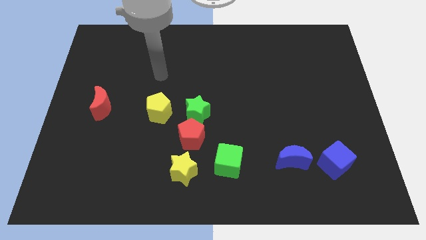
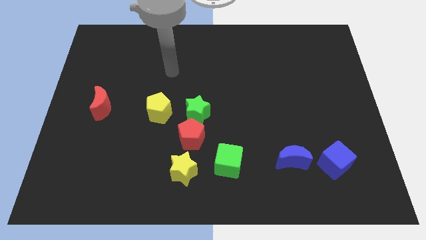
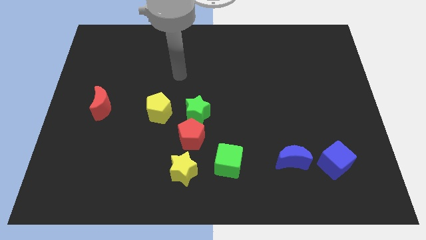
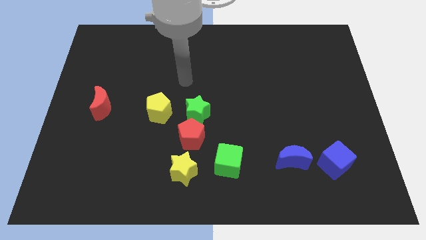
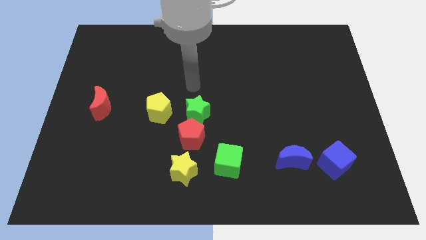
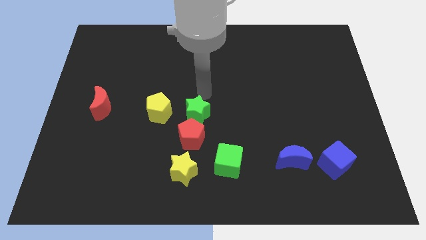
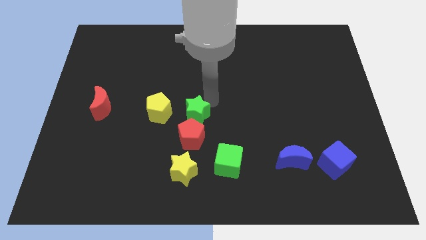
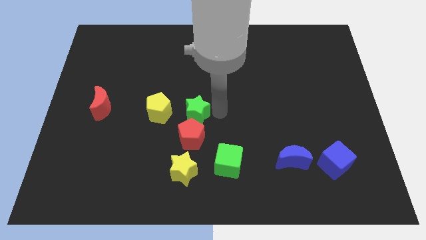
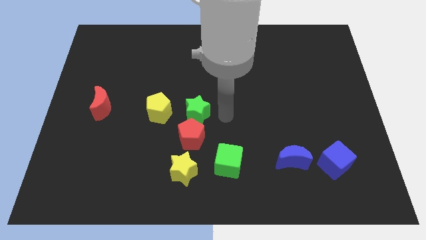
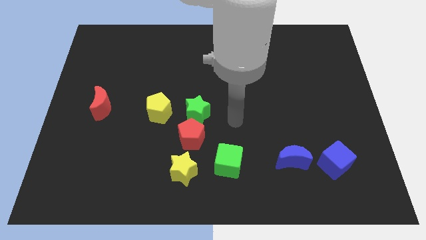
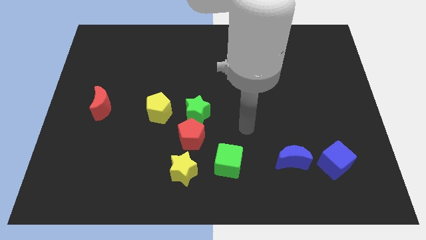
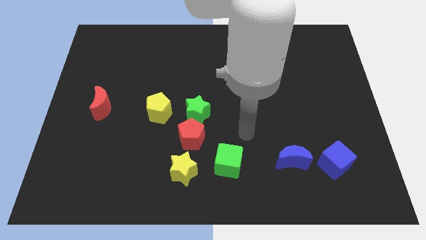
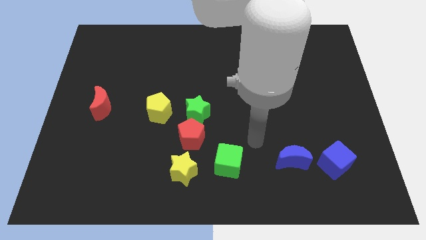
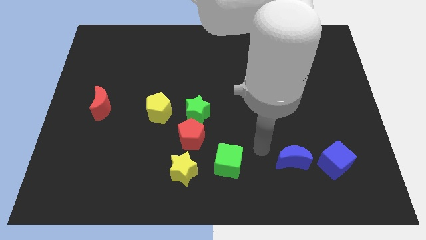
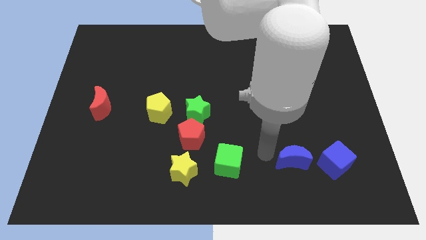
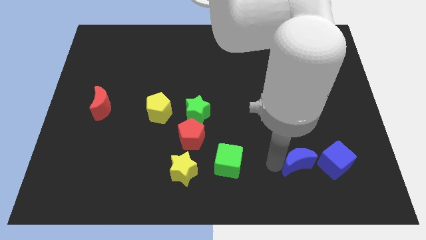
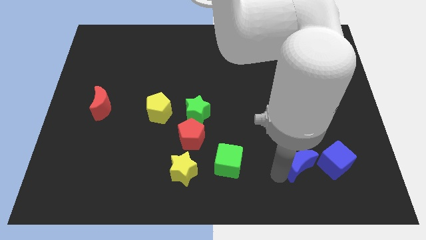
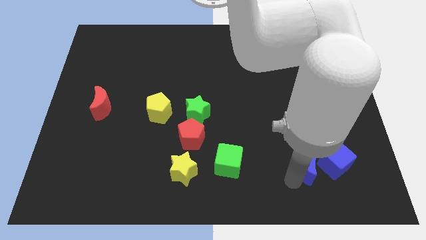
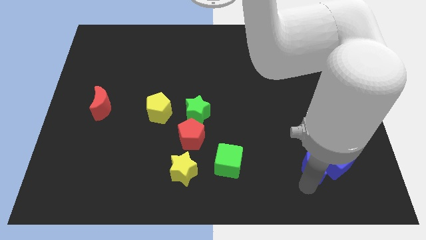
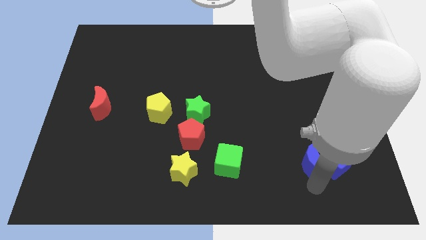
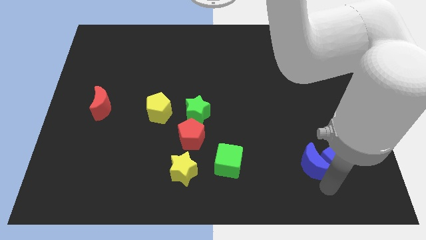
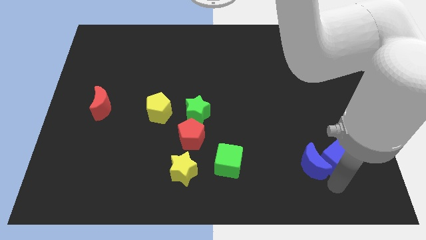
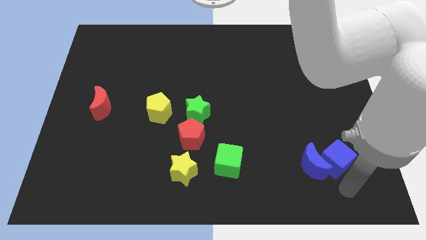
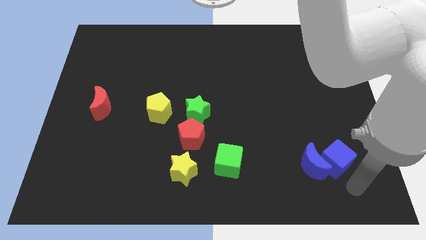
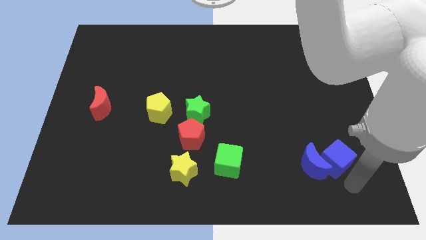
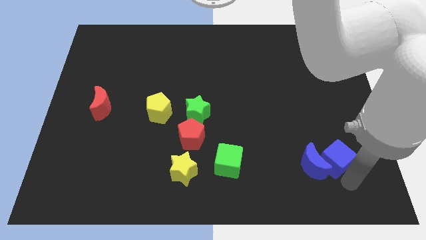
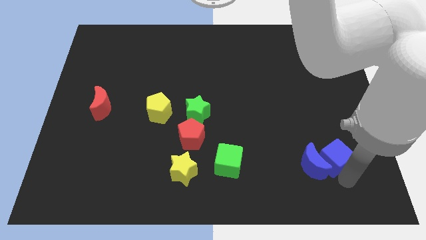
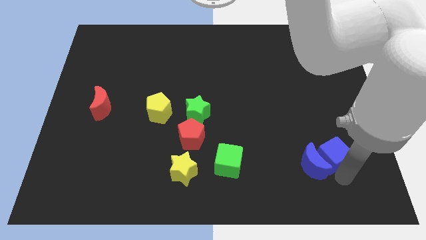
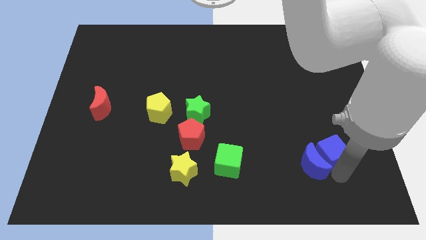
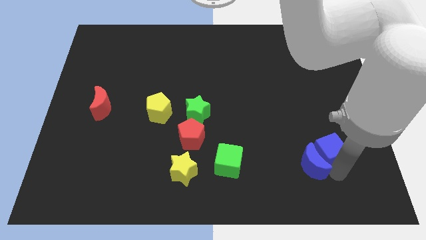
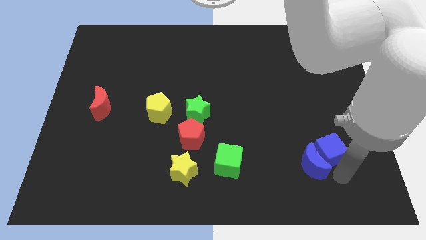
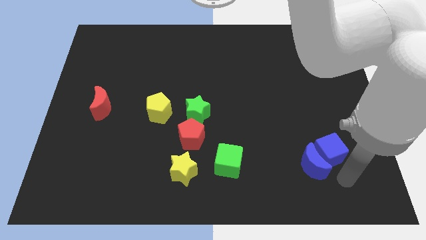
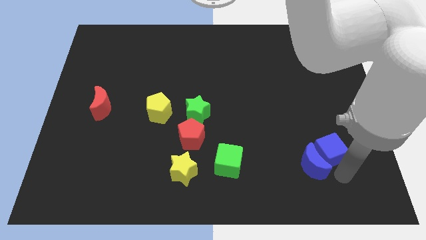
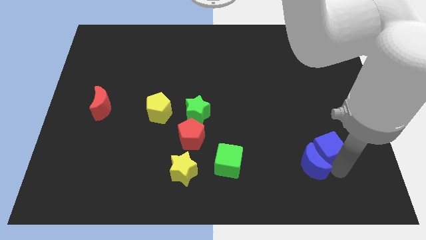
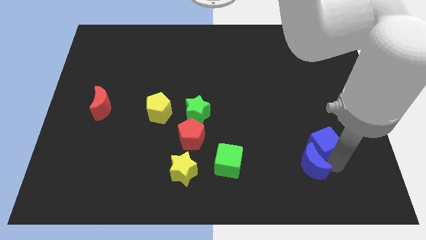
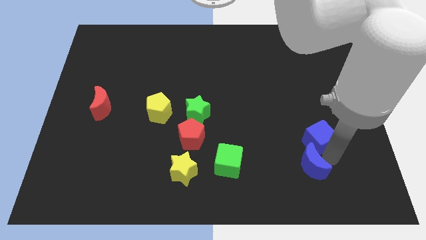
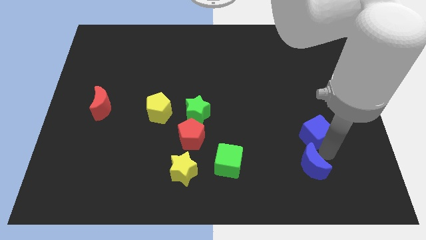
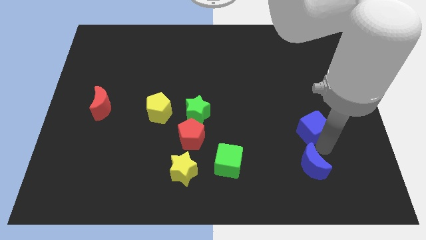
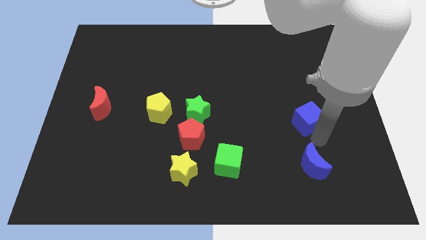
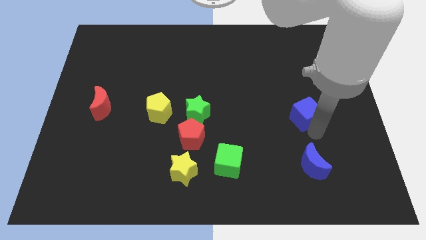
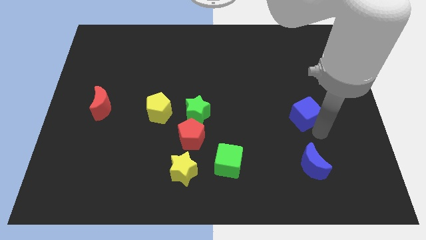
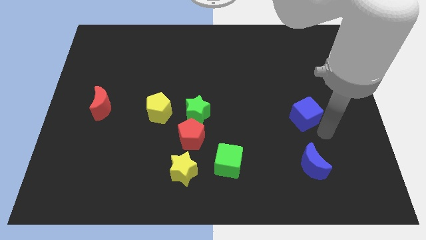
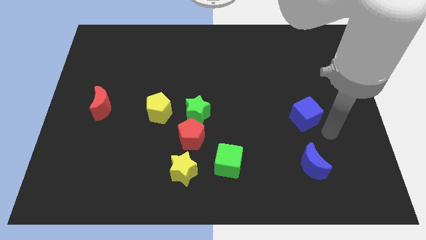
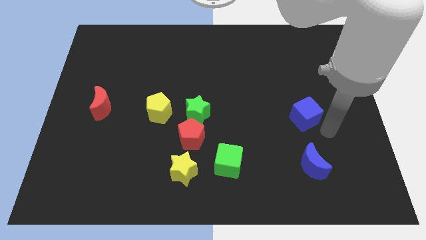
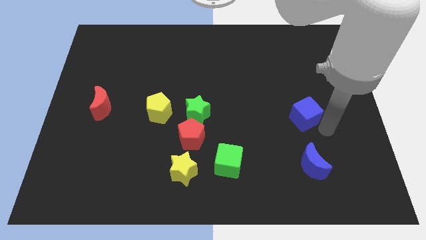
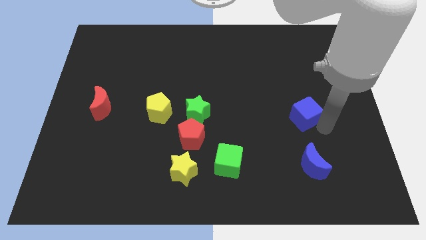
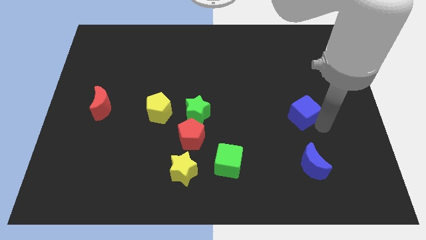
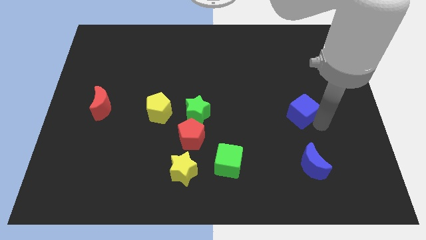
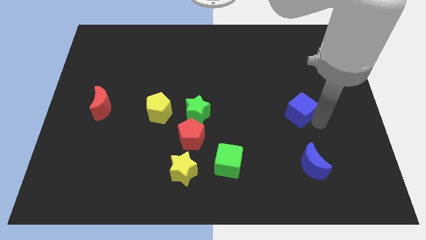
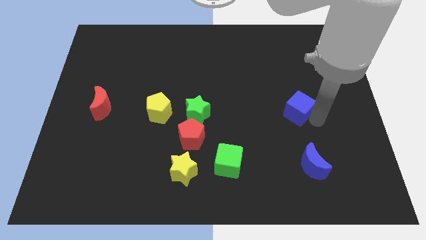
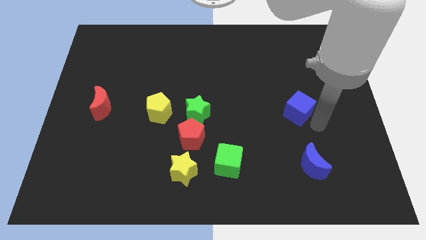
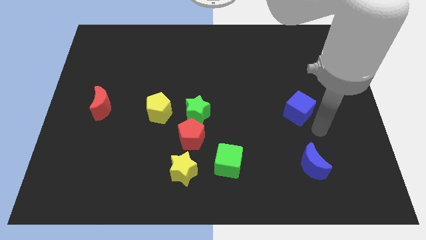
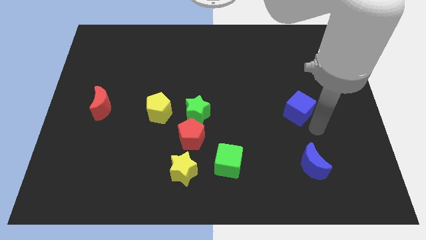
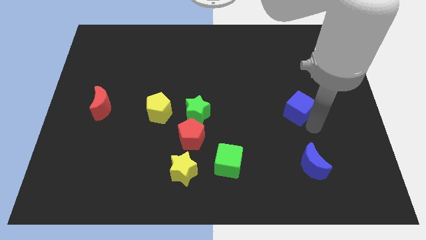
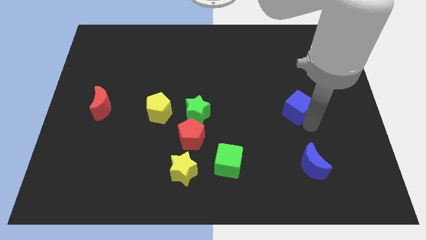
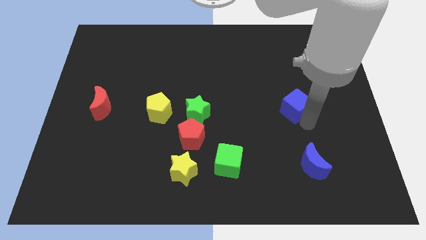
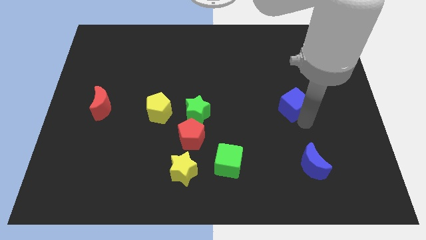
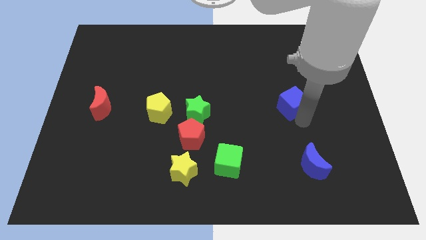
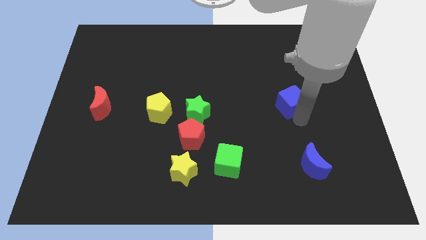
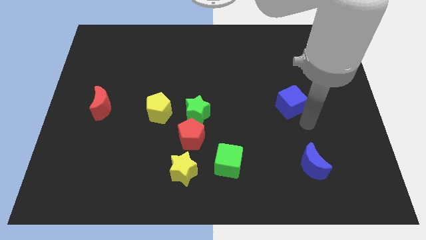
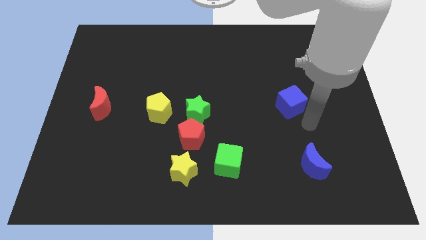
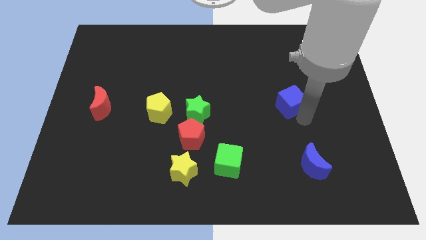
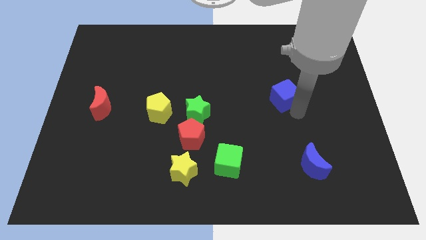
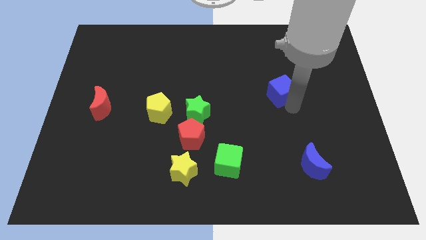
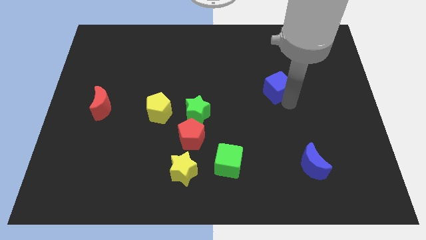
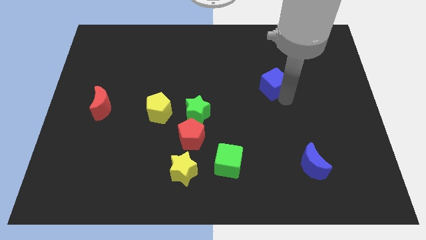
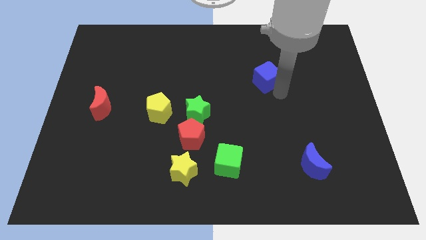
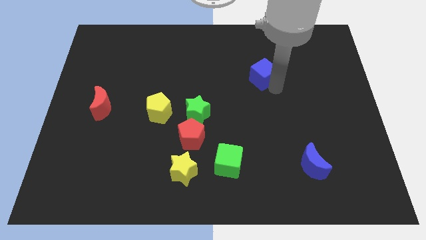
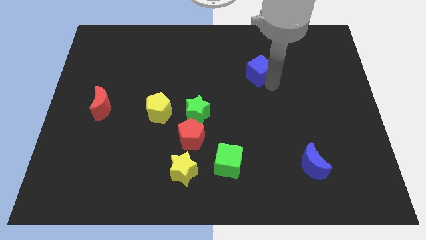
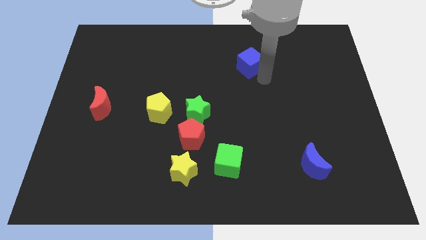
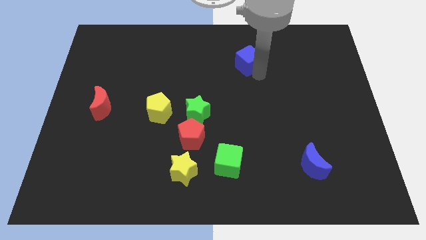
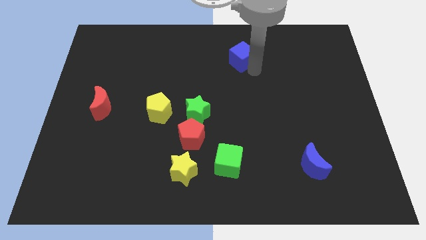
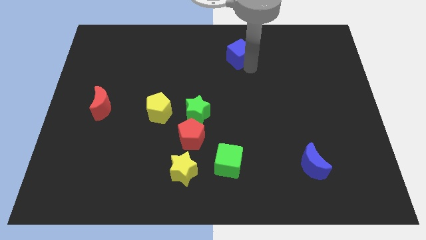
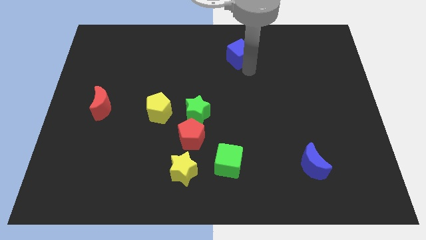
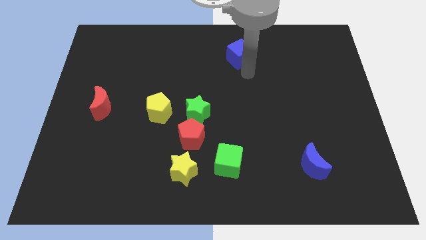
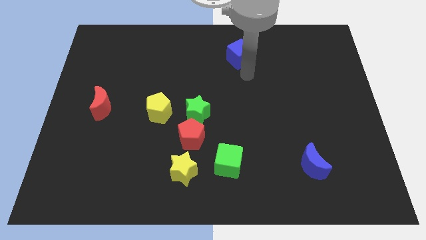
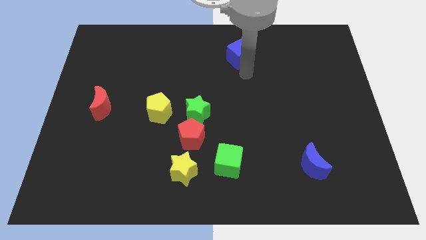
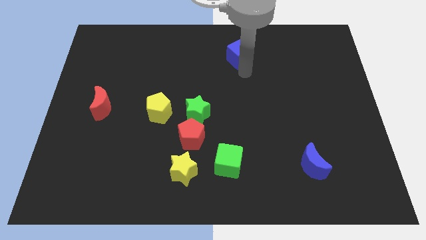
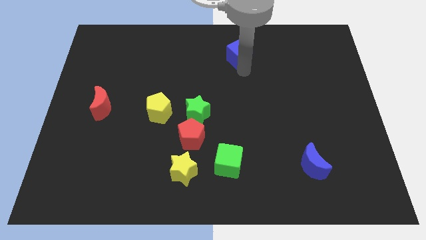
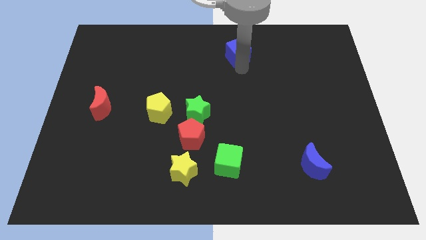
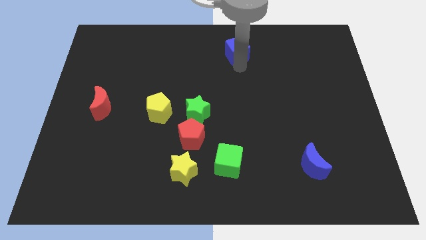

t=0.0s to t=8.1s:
push the blue cube to the towards your base
